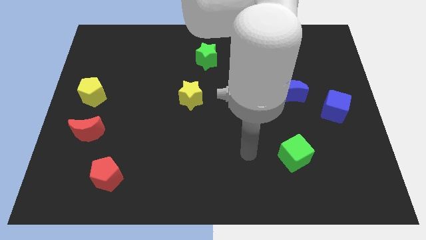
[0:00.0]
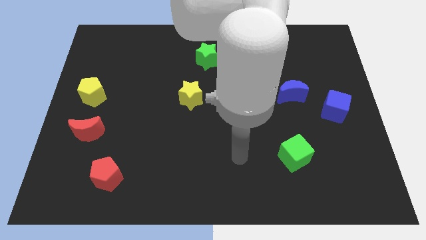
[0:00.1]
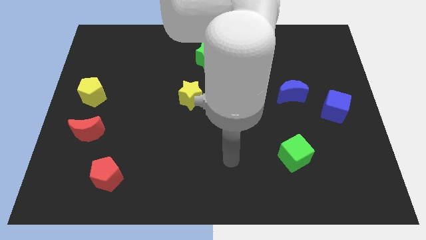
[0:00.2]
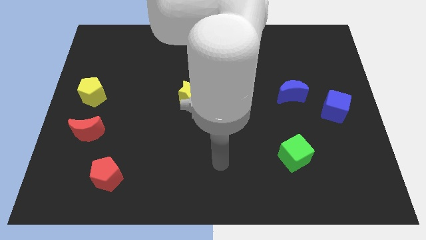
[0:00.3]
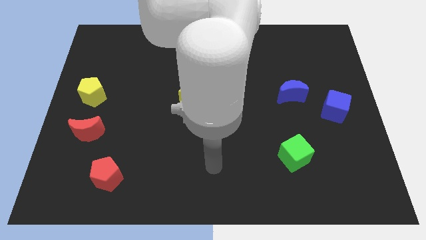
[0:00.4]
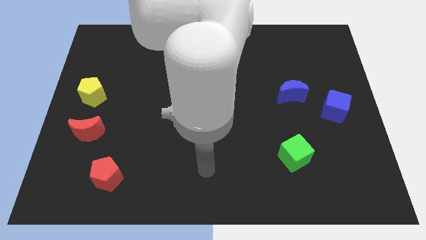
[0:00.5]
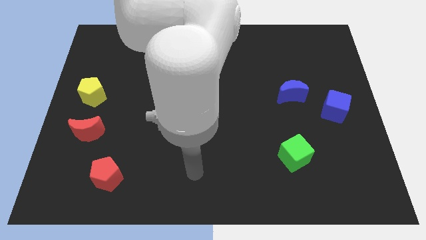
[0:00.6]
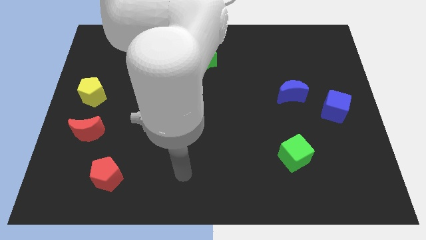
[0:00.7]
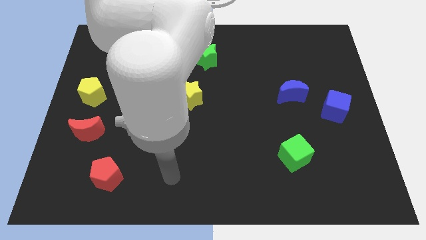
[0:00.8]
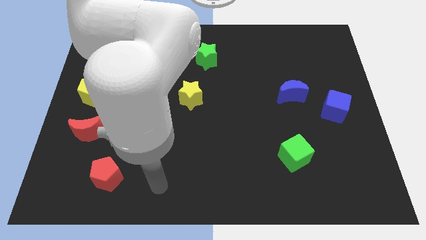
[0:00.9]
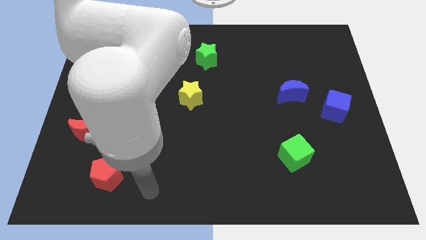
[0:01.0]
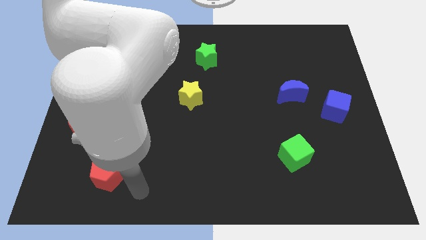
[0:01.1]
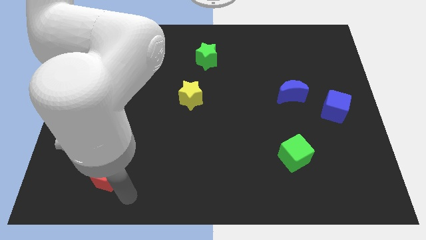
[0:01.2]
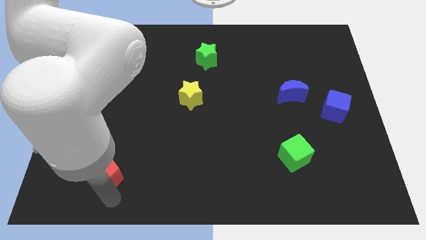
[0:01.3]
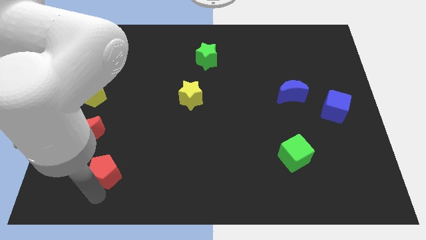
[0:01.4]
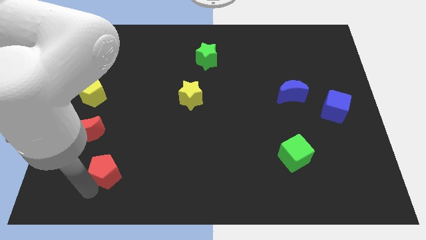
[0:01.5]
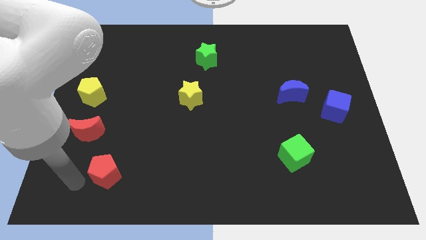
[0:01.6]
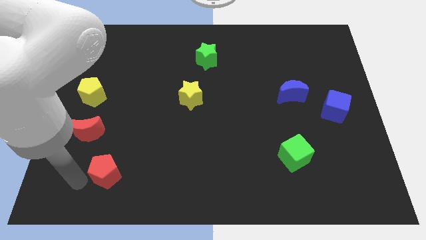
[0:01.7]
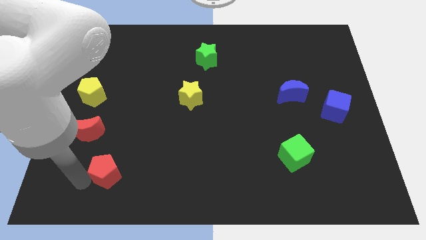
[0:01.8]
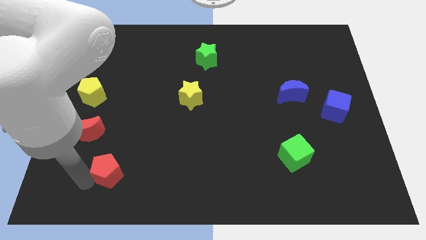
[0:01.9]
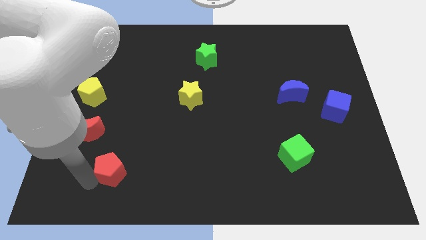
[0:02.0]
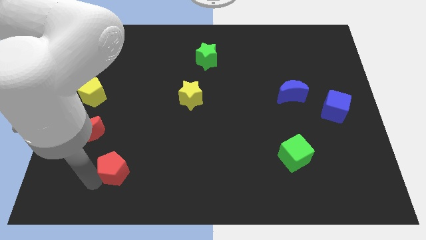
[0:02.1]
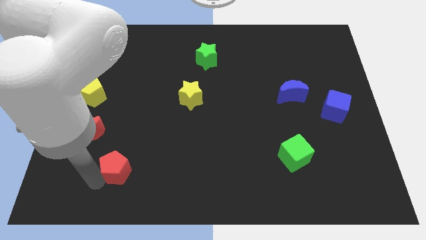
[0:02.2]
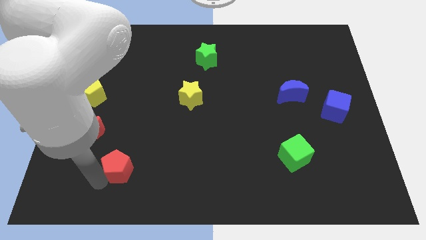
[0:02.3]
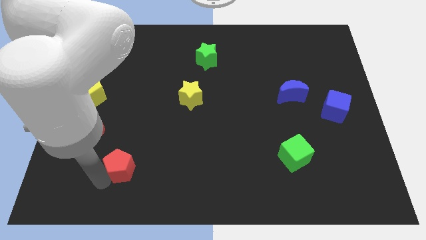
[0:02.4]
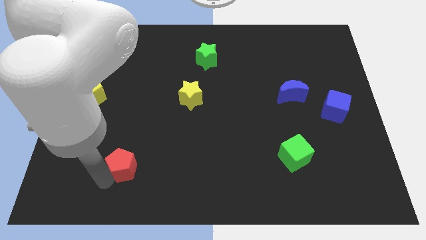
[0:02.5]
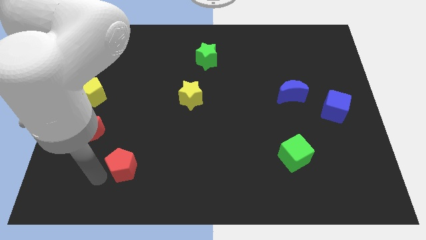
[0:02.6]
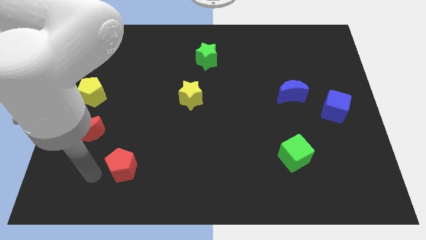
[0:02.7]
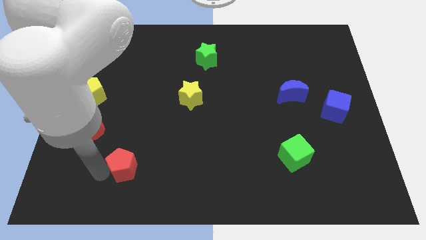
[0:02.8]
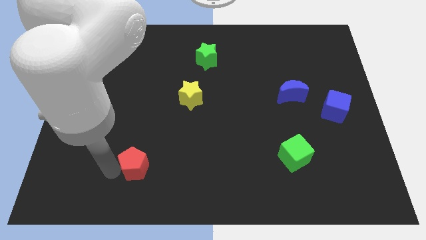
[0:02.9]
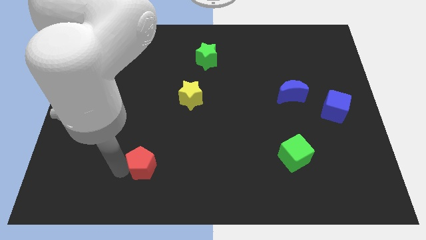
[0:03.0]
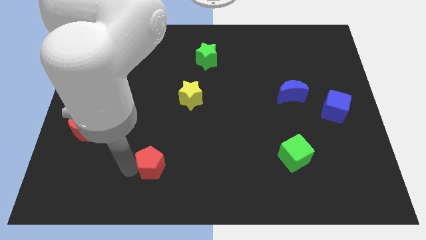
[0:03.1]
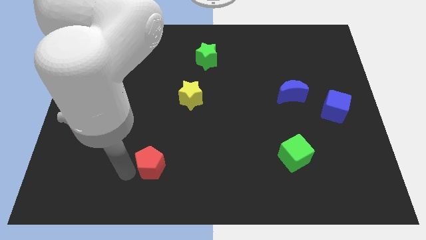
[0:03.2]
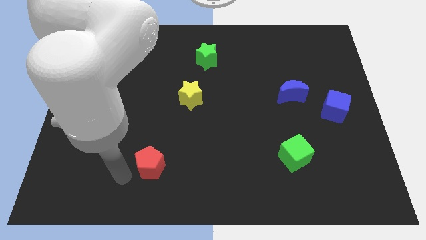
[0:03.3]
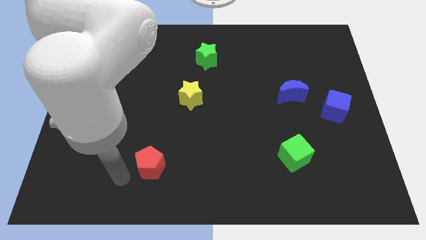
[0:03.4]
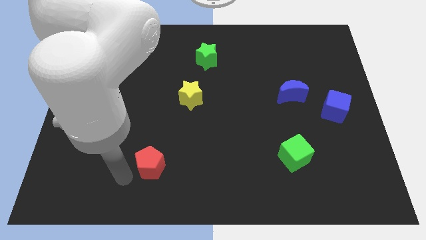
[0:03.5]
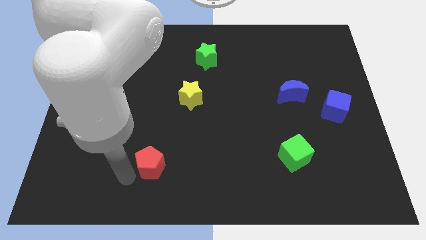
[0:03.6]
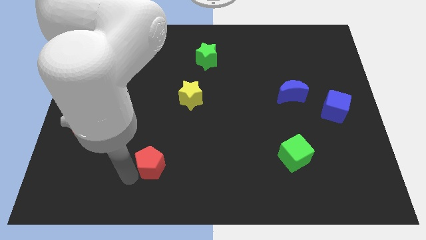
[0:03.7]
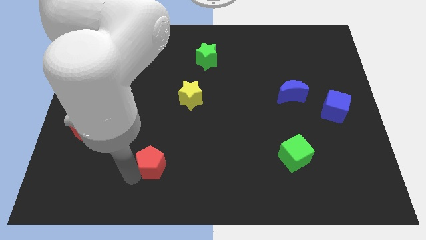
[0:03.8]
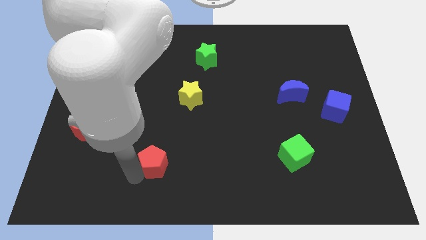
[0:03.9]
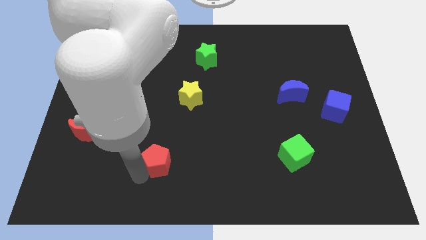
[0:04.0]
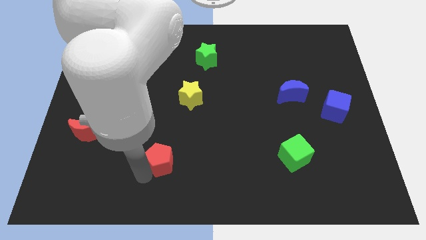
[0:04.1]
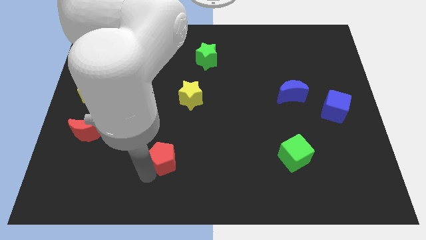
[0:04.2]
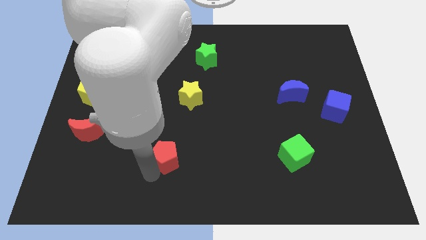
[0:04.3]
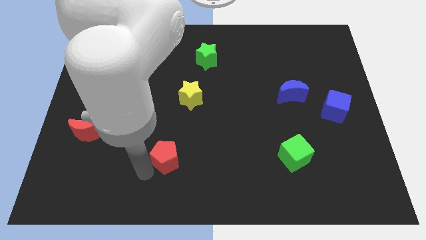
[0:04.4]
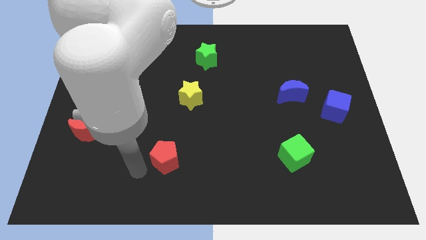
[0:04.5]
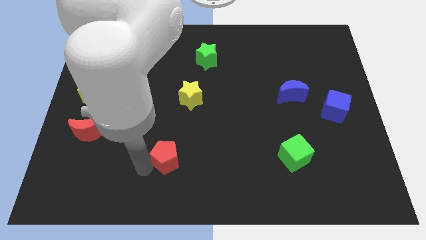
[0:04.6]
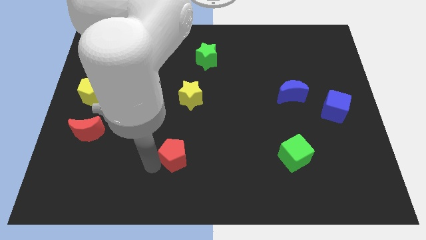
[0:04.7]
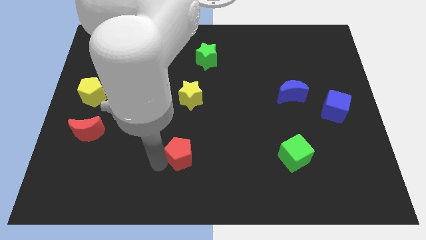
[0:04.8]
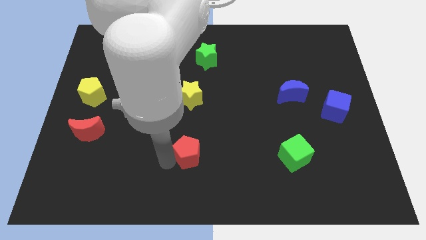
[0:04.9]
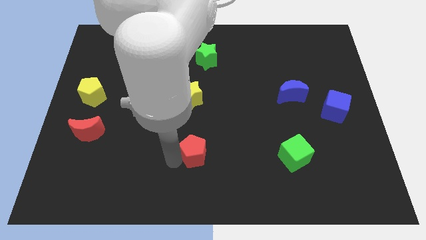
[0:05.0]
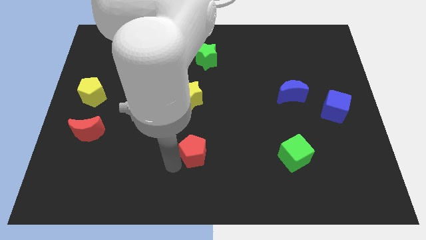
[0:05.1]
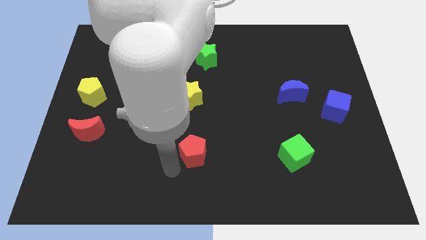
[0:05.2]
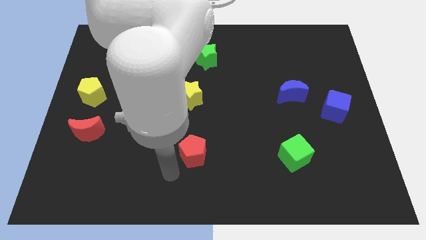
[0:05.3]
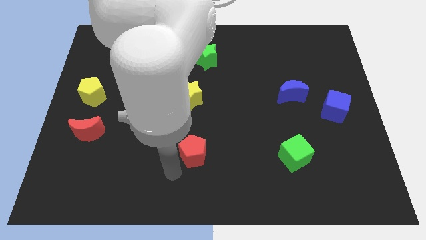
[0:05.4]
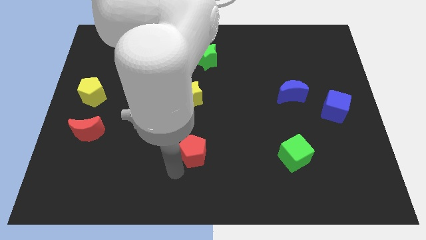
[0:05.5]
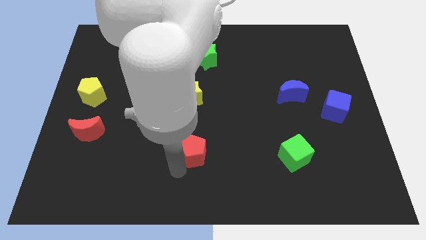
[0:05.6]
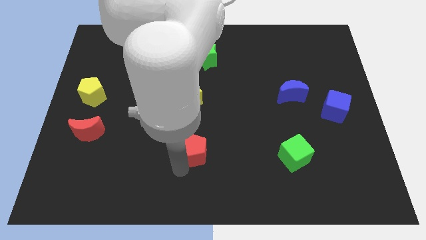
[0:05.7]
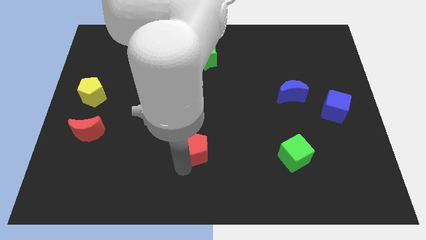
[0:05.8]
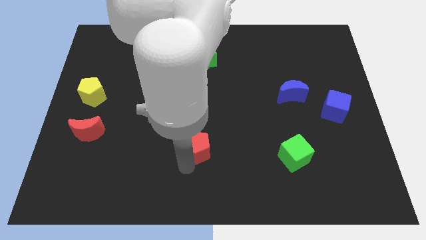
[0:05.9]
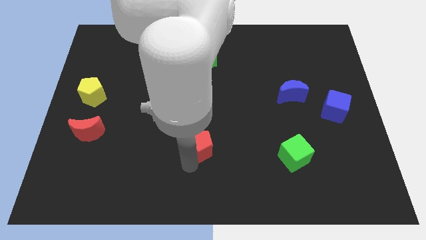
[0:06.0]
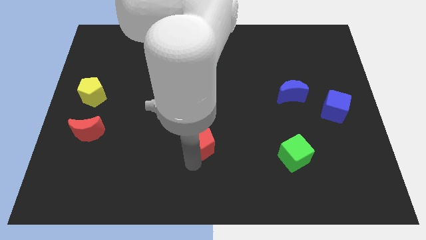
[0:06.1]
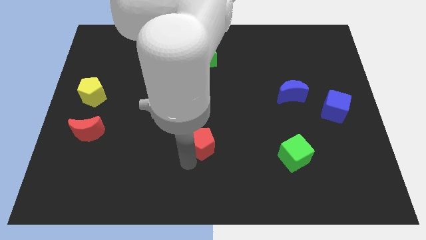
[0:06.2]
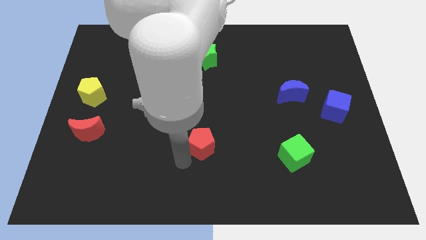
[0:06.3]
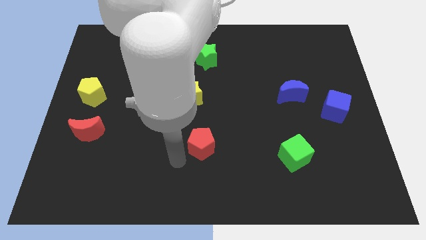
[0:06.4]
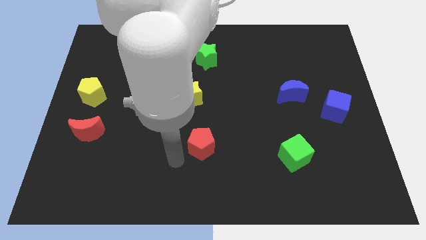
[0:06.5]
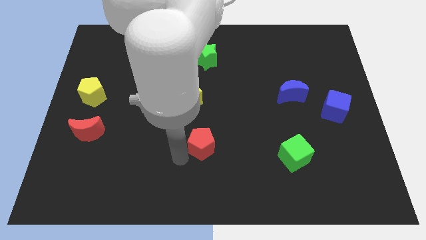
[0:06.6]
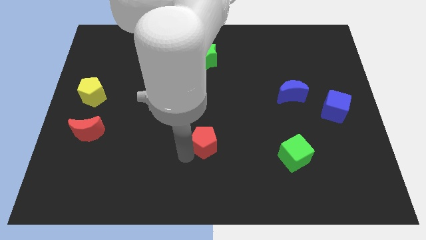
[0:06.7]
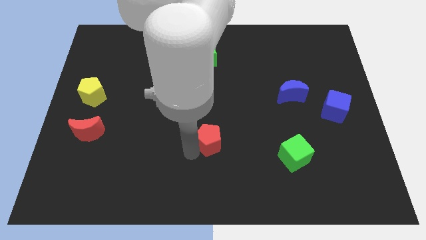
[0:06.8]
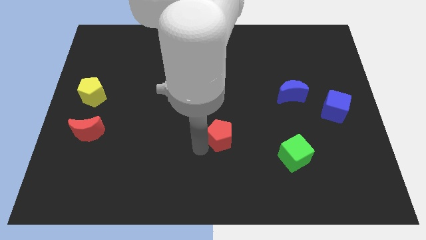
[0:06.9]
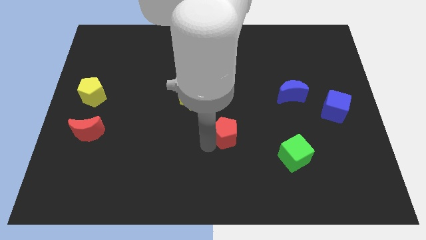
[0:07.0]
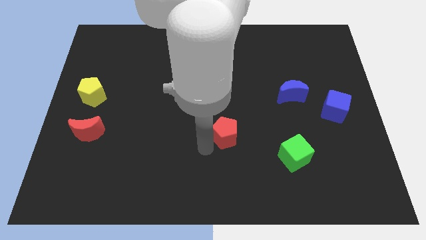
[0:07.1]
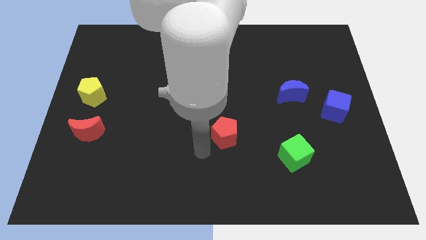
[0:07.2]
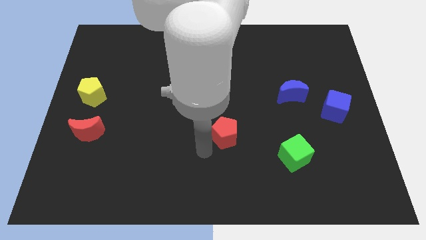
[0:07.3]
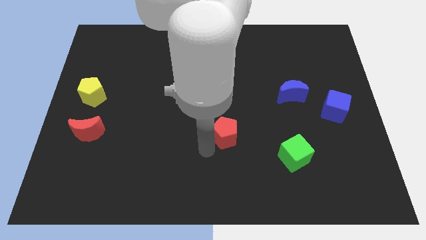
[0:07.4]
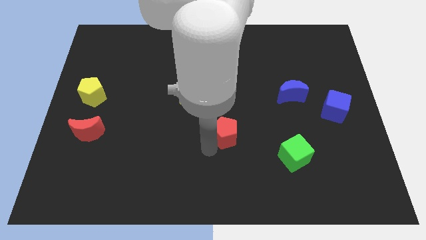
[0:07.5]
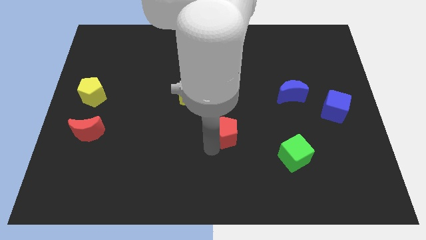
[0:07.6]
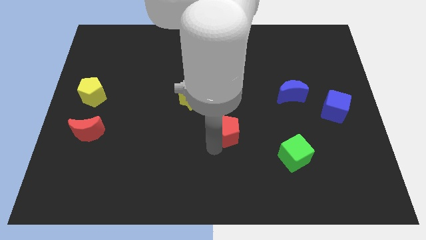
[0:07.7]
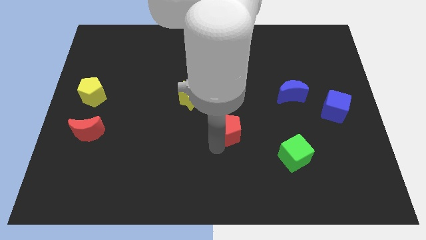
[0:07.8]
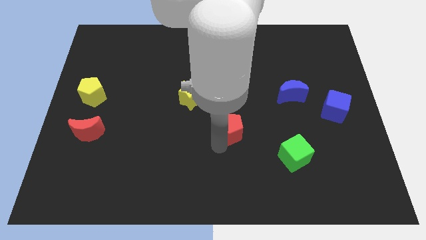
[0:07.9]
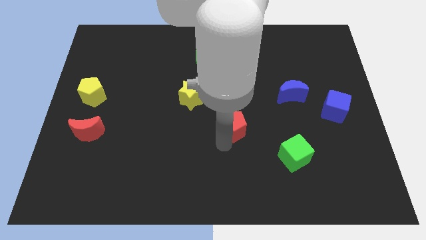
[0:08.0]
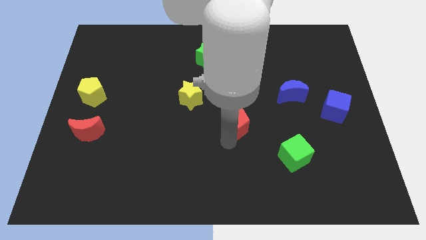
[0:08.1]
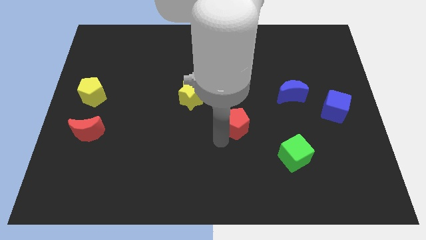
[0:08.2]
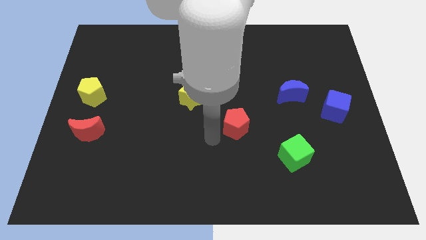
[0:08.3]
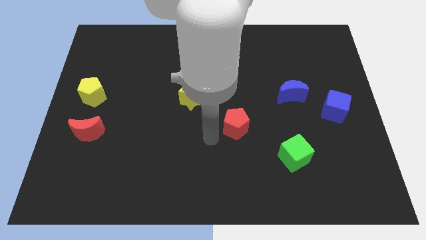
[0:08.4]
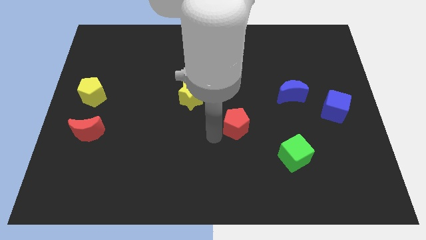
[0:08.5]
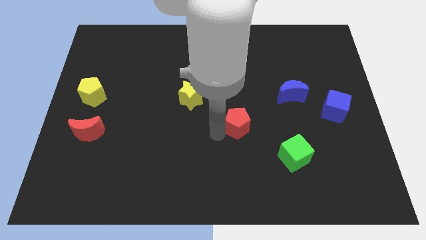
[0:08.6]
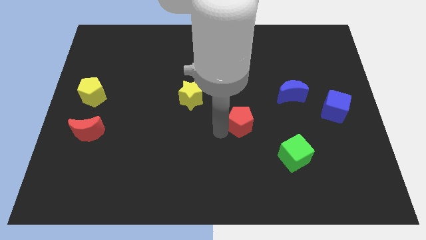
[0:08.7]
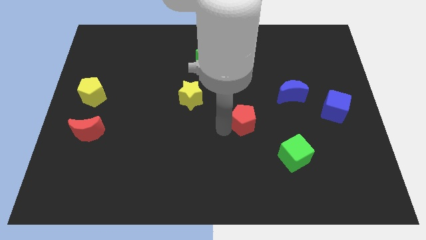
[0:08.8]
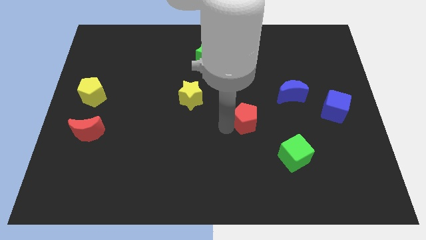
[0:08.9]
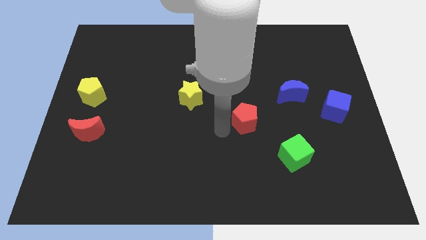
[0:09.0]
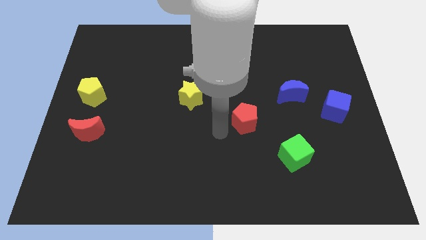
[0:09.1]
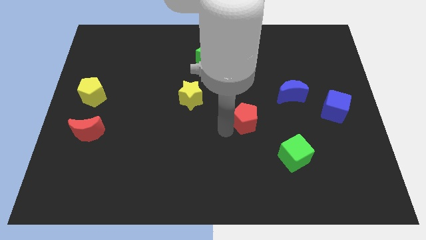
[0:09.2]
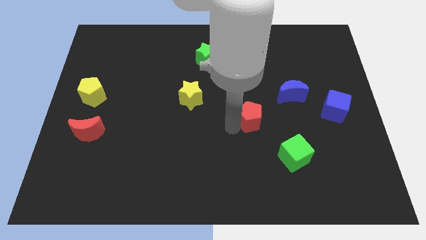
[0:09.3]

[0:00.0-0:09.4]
slide the red pentagon to the bottom left of the blue moon
